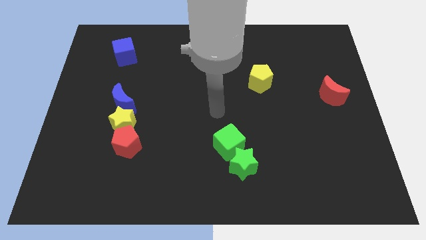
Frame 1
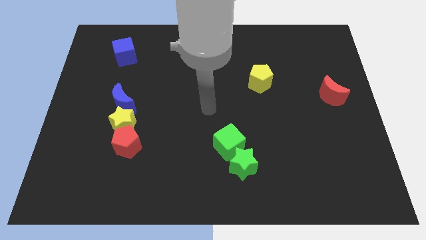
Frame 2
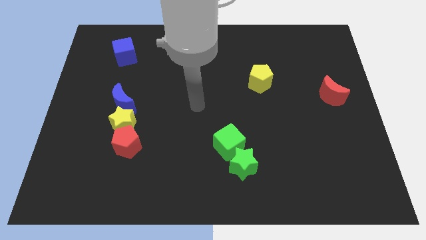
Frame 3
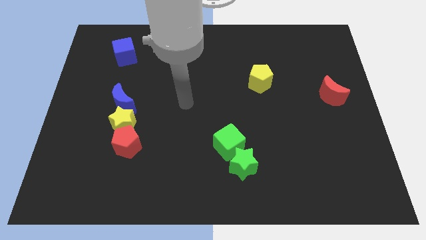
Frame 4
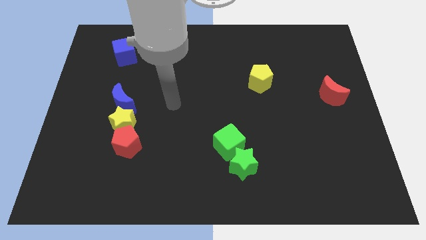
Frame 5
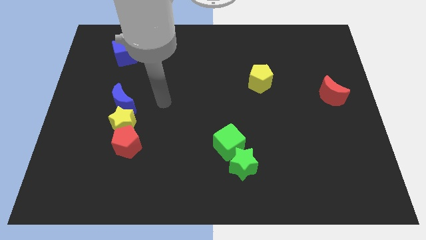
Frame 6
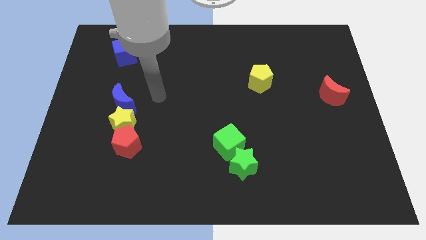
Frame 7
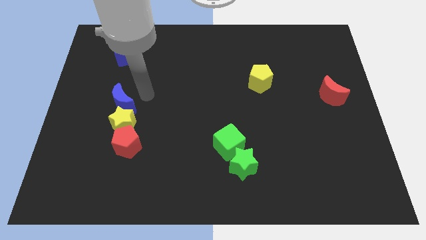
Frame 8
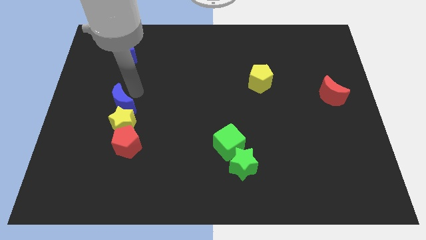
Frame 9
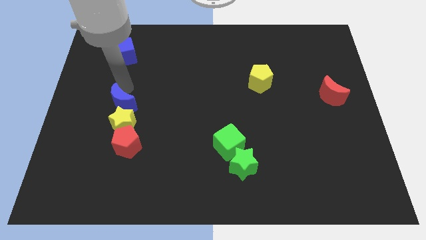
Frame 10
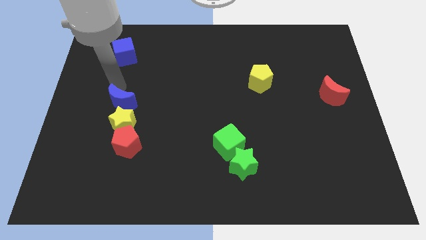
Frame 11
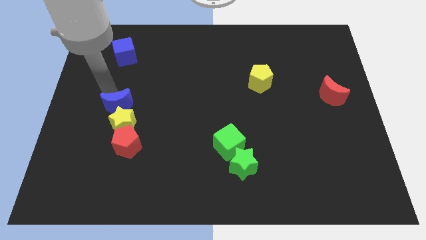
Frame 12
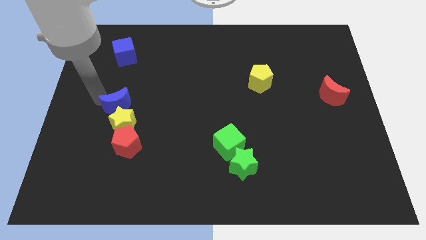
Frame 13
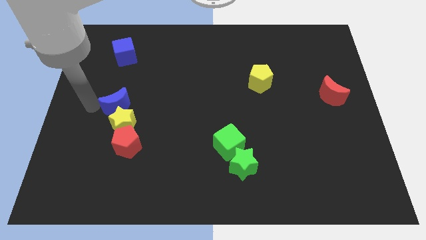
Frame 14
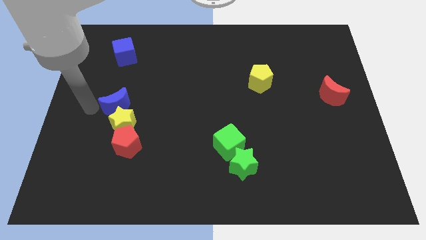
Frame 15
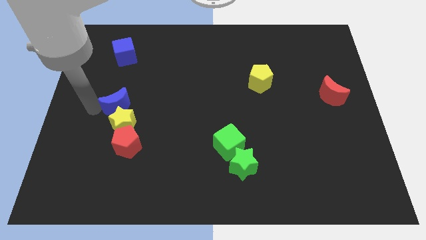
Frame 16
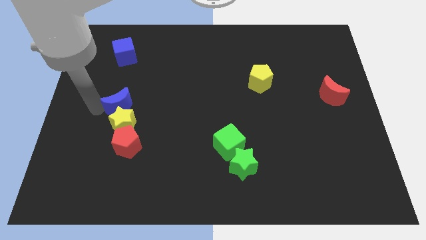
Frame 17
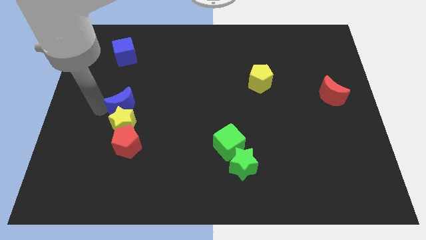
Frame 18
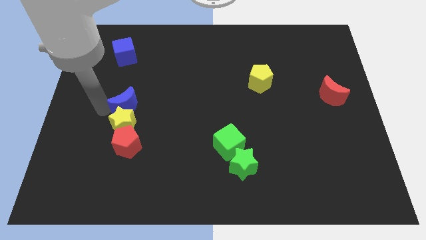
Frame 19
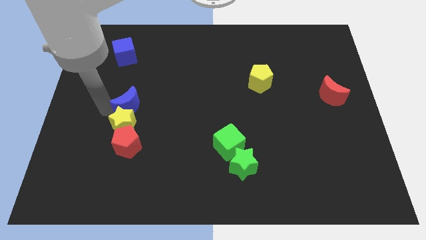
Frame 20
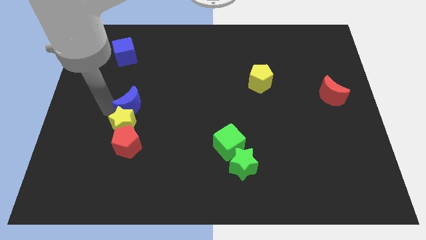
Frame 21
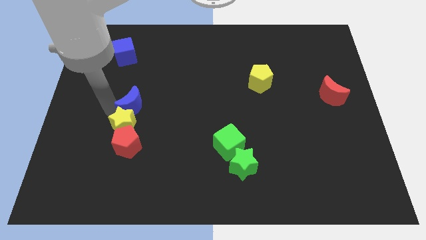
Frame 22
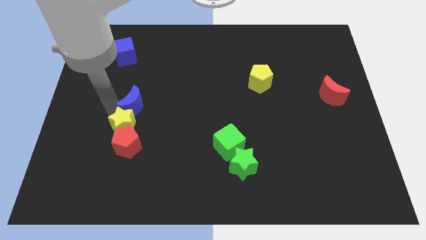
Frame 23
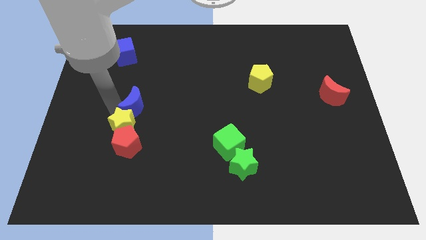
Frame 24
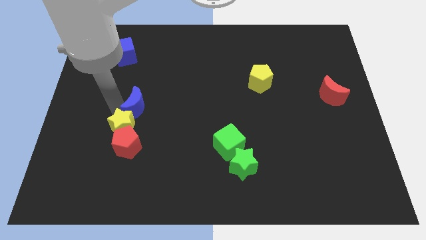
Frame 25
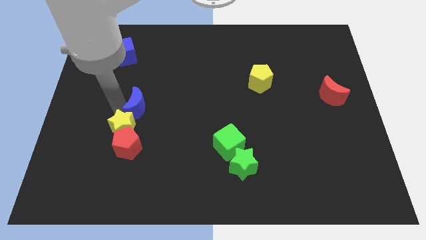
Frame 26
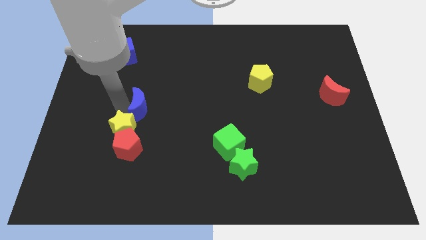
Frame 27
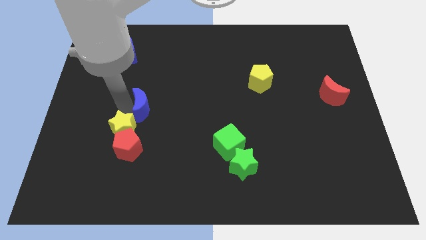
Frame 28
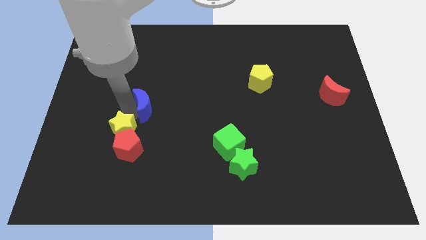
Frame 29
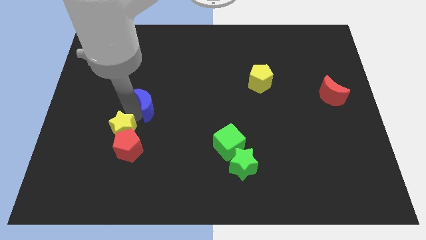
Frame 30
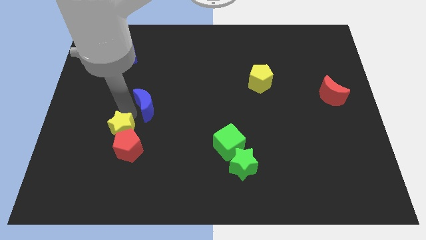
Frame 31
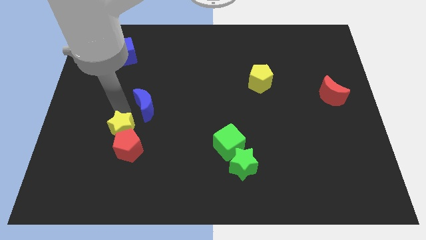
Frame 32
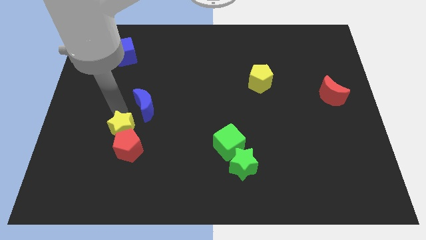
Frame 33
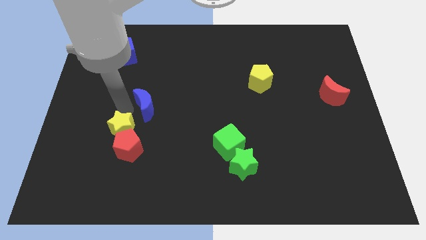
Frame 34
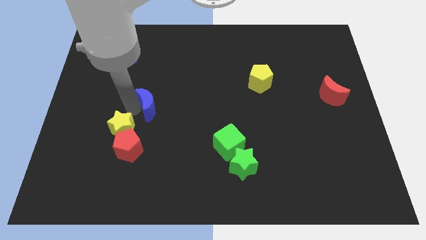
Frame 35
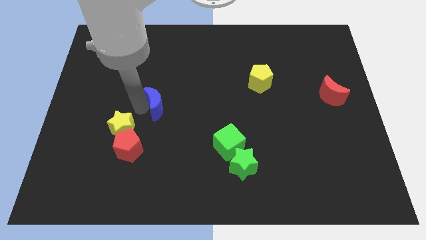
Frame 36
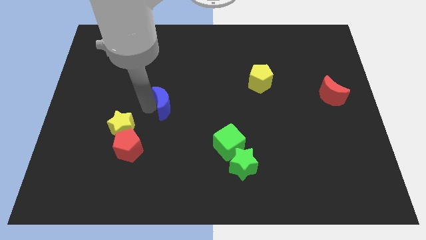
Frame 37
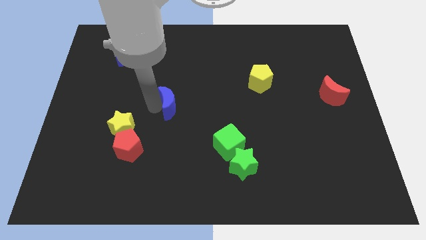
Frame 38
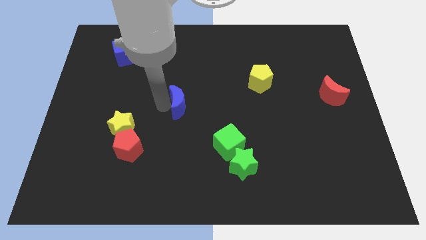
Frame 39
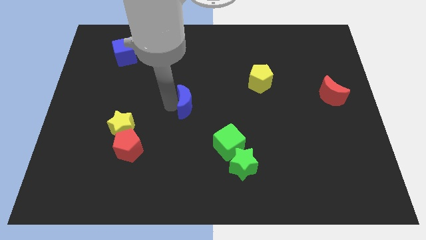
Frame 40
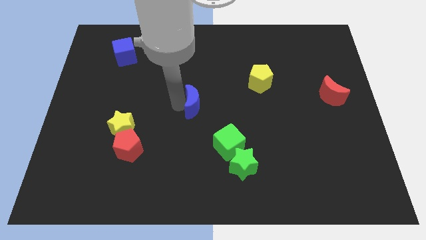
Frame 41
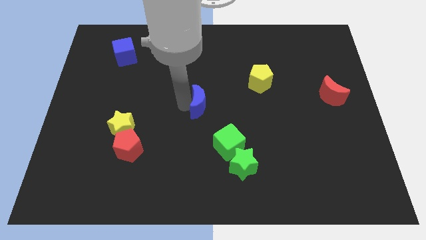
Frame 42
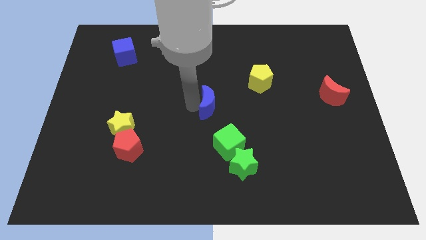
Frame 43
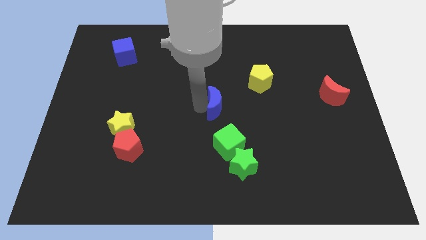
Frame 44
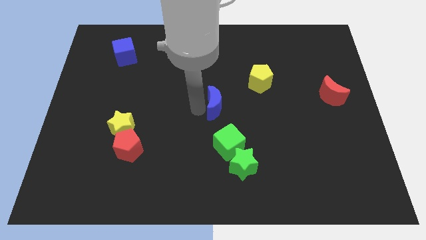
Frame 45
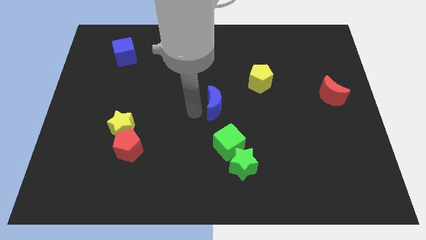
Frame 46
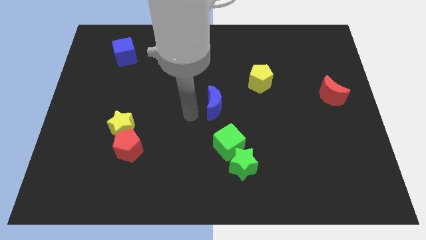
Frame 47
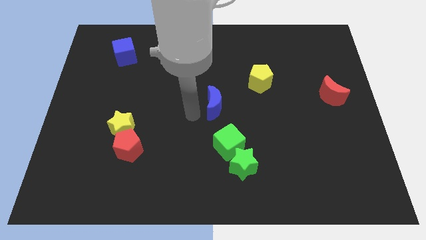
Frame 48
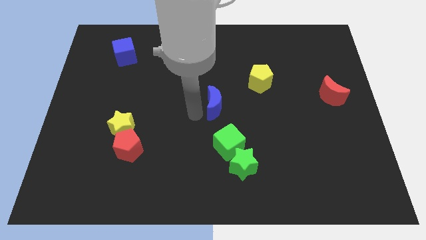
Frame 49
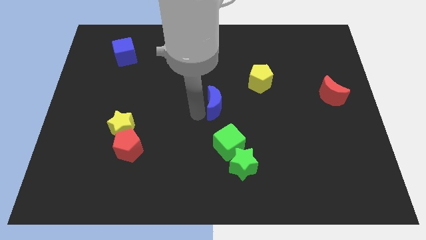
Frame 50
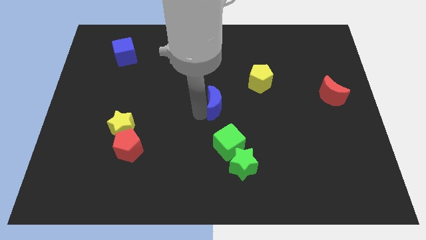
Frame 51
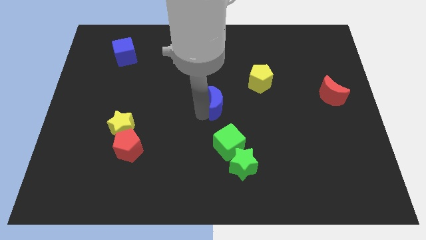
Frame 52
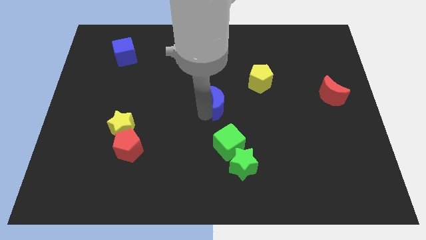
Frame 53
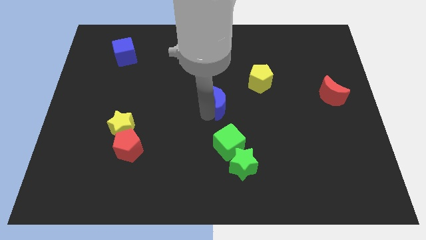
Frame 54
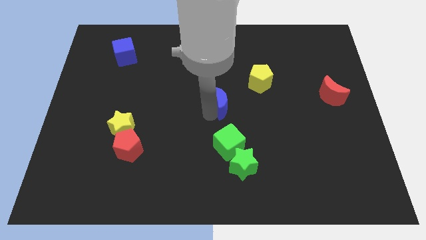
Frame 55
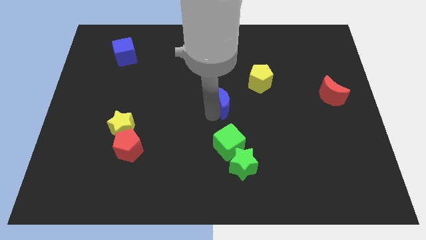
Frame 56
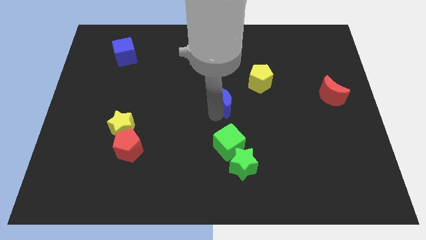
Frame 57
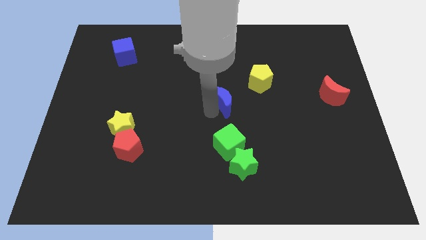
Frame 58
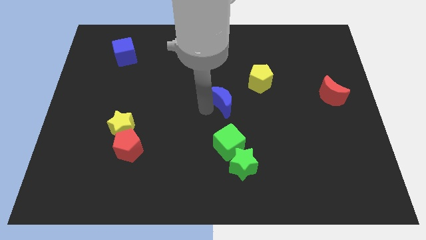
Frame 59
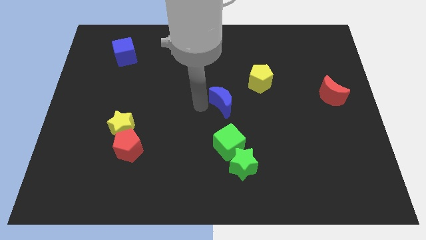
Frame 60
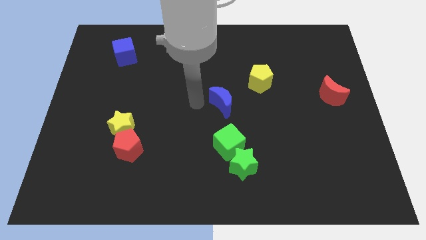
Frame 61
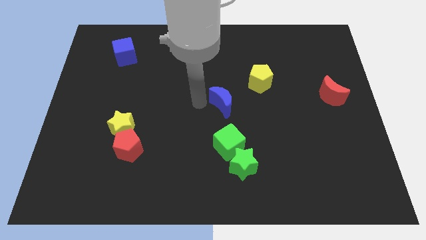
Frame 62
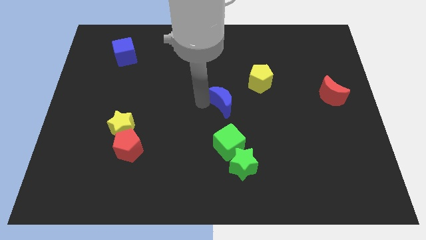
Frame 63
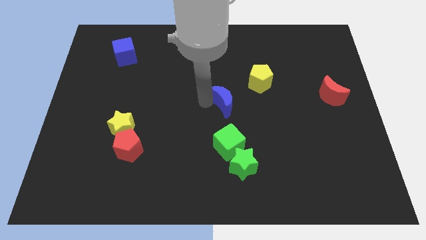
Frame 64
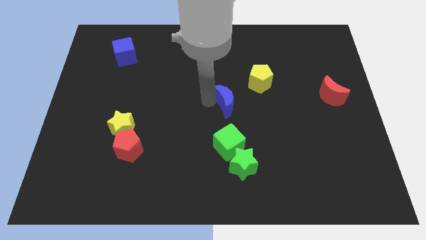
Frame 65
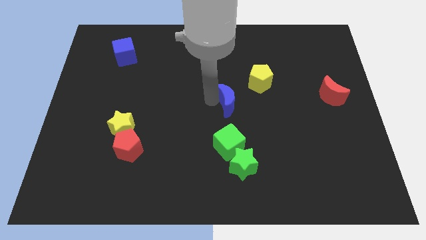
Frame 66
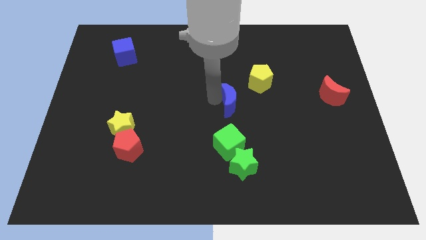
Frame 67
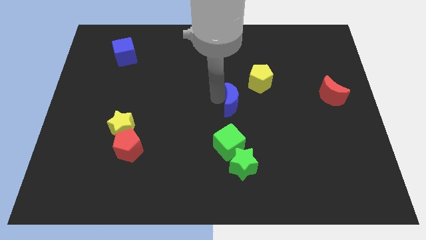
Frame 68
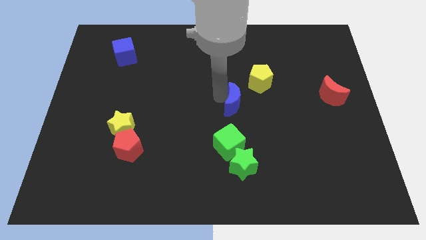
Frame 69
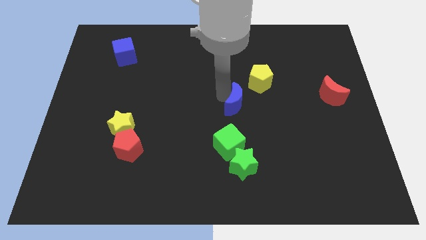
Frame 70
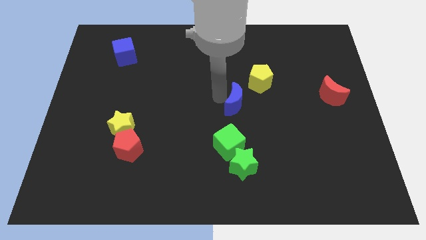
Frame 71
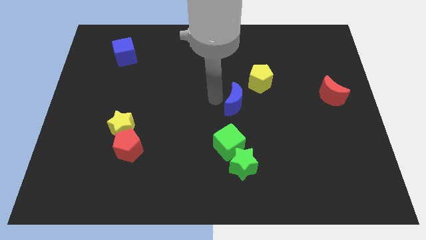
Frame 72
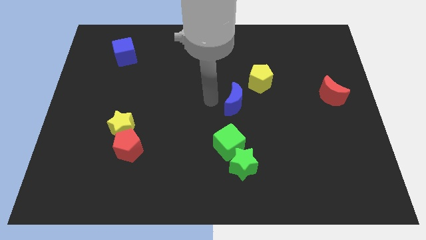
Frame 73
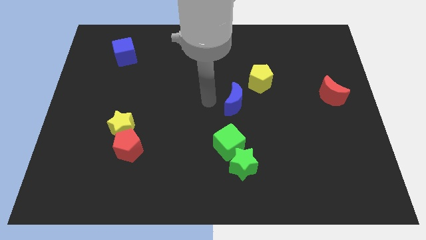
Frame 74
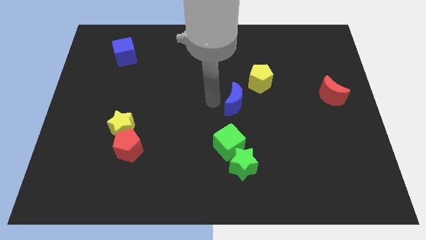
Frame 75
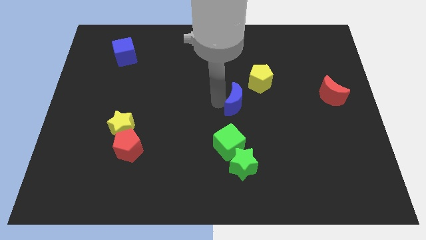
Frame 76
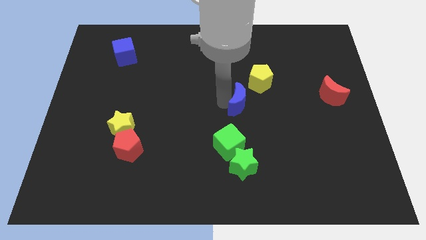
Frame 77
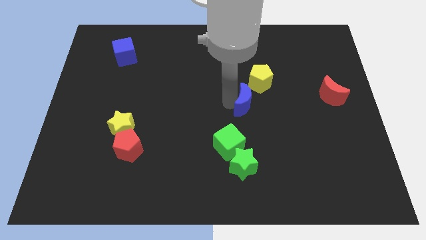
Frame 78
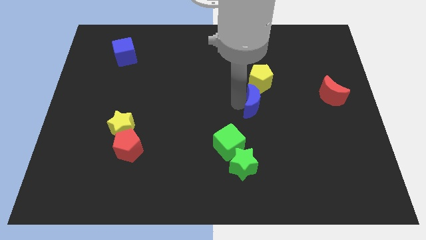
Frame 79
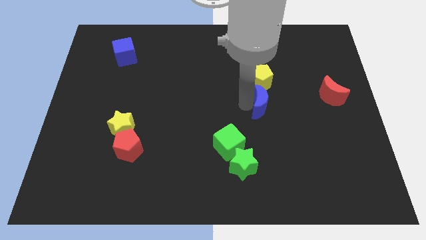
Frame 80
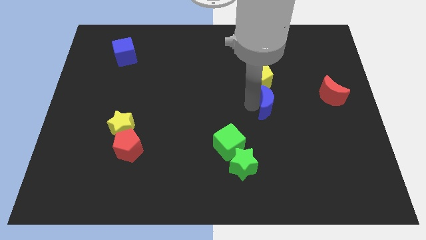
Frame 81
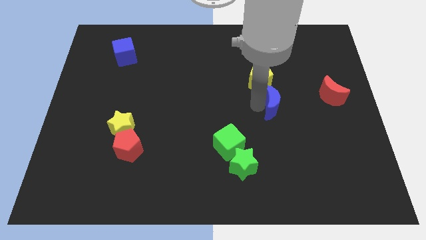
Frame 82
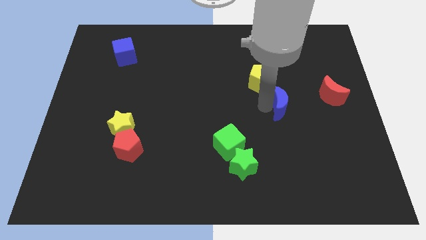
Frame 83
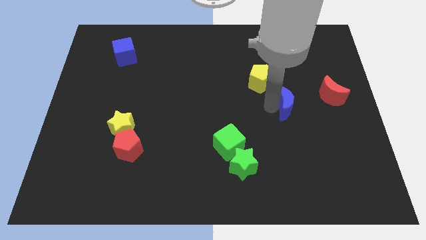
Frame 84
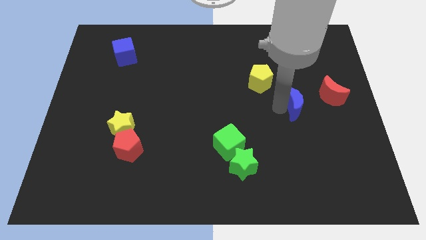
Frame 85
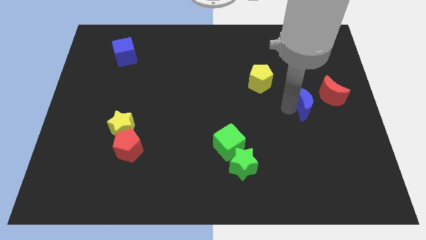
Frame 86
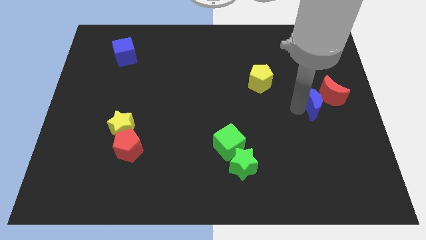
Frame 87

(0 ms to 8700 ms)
move the blue moon to the red moon
